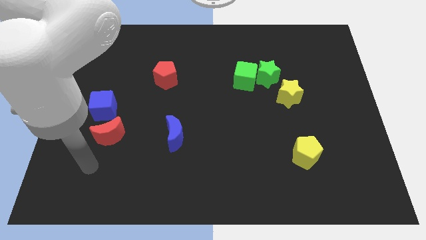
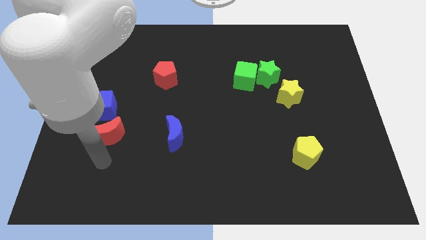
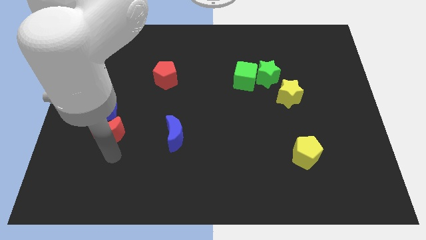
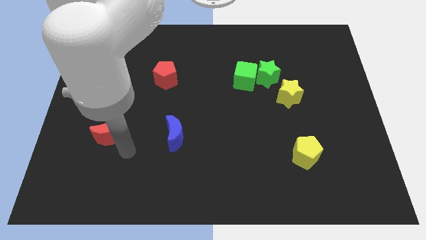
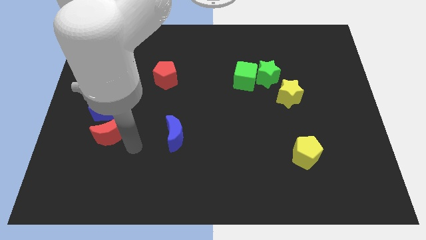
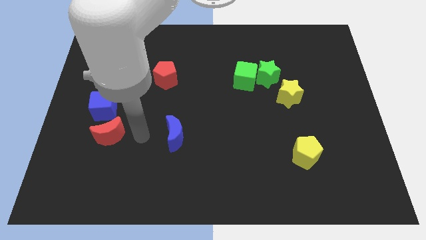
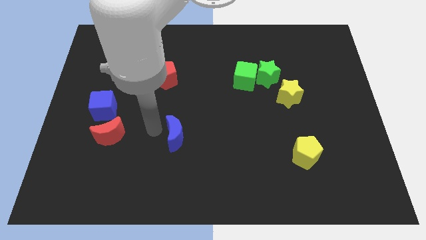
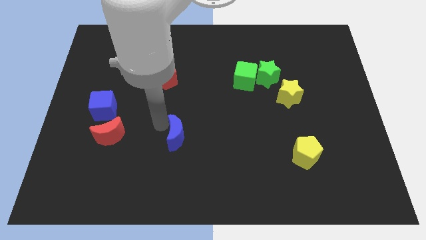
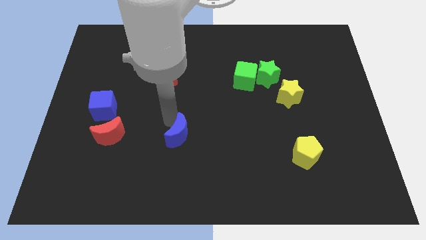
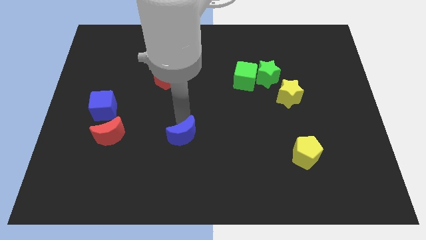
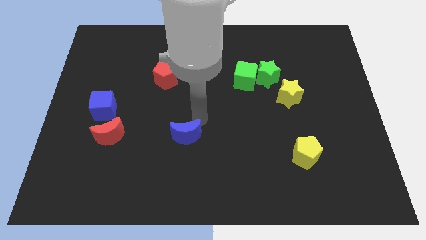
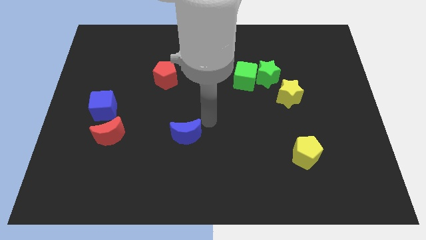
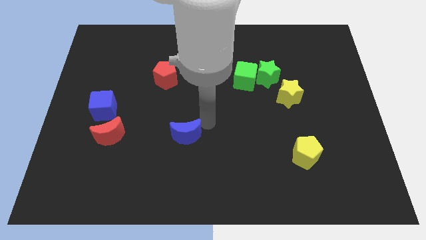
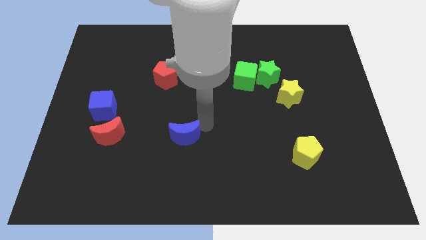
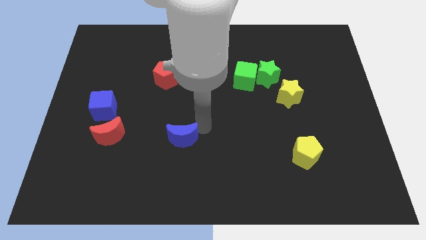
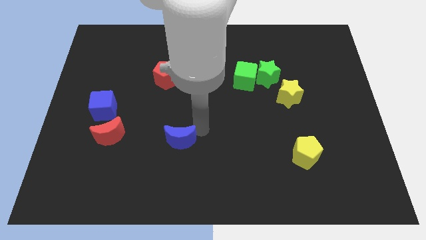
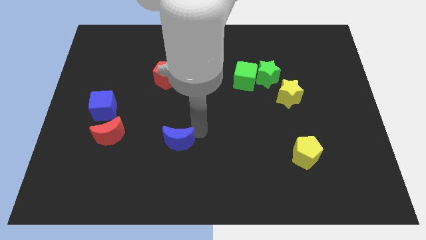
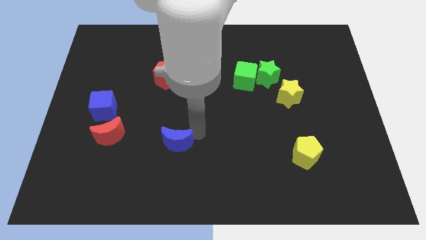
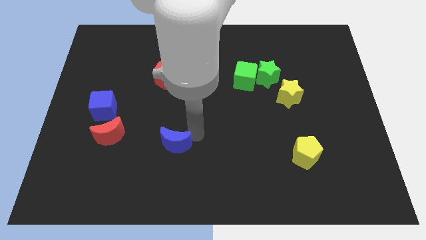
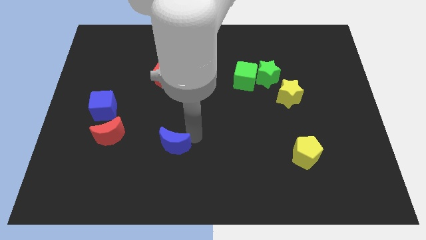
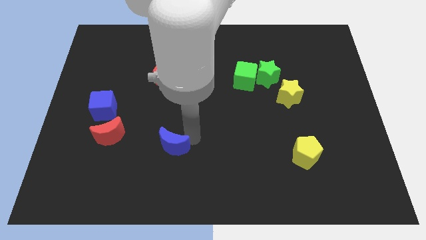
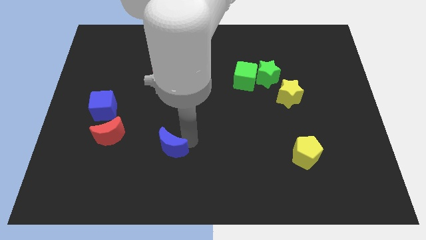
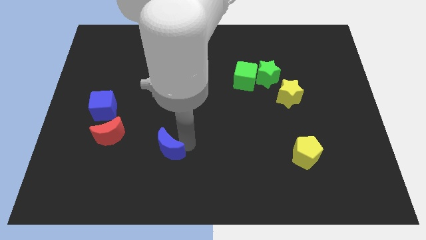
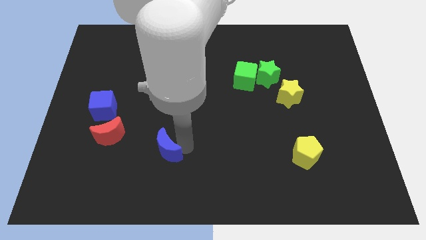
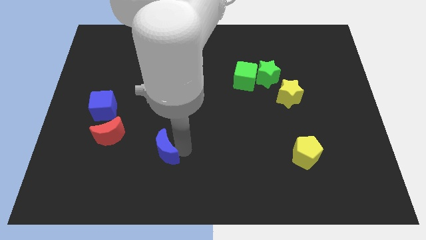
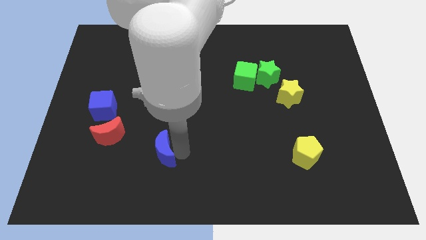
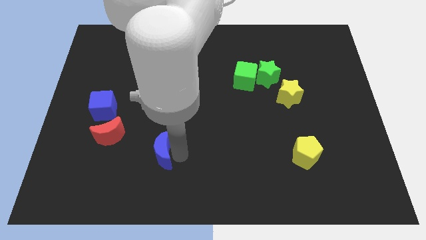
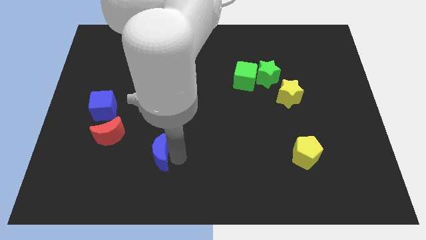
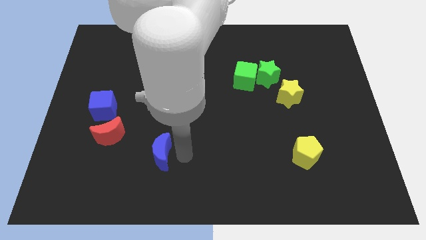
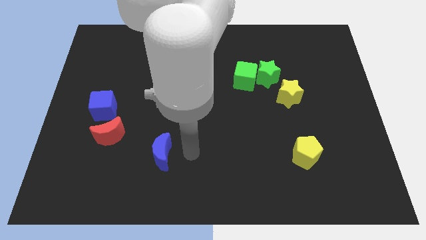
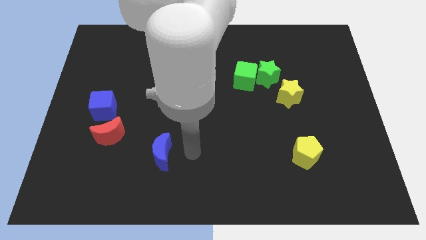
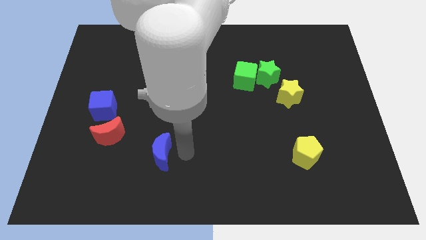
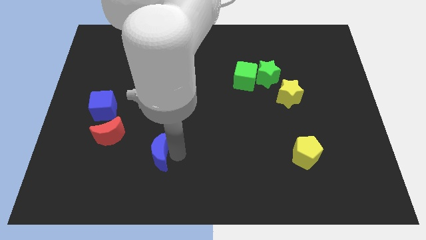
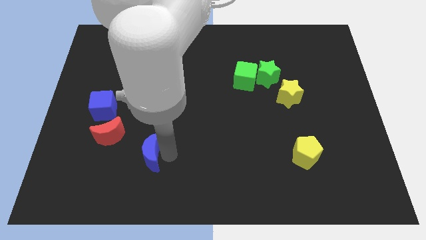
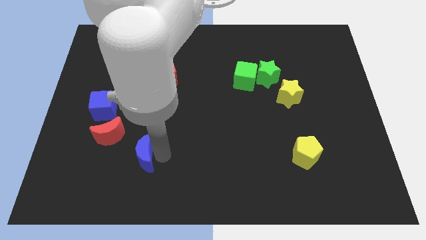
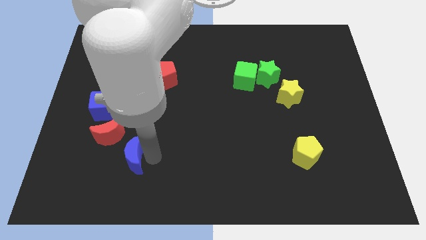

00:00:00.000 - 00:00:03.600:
slide the blue moon to the left a bit

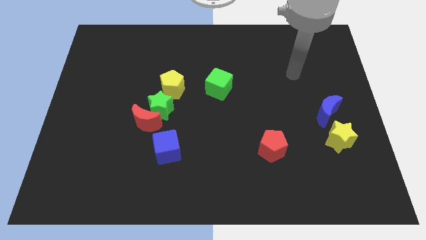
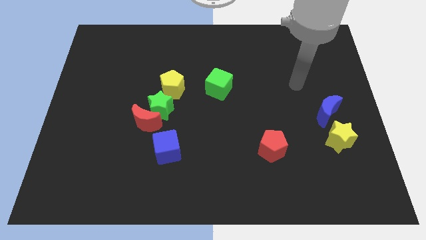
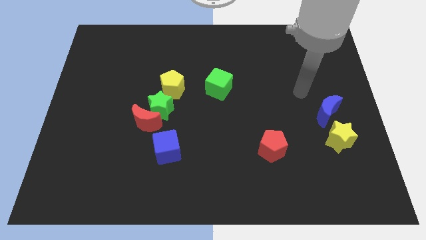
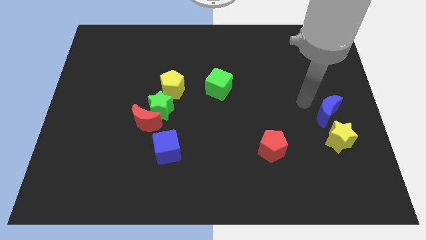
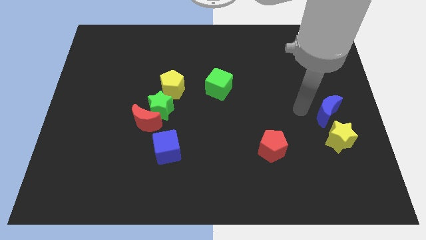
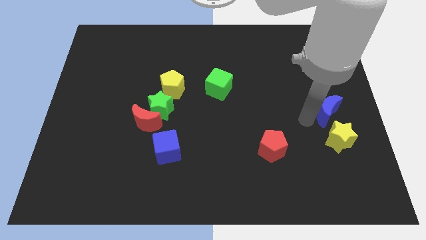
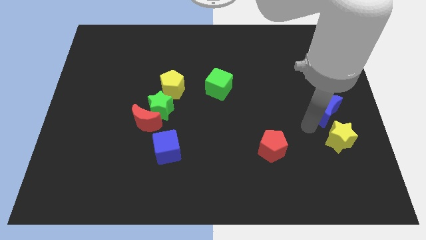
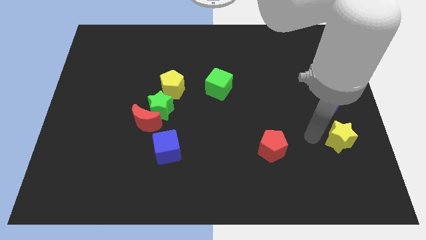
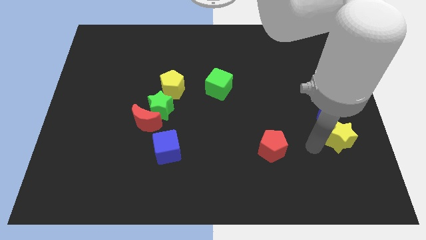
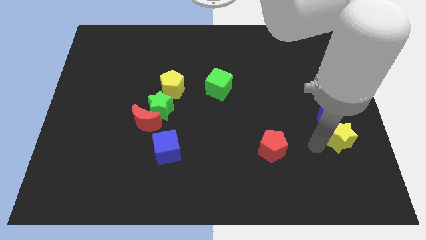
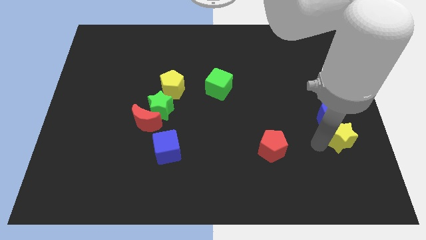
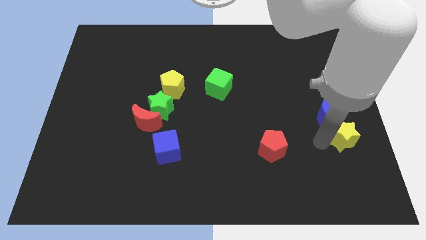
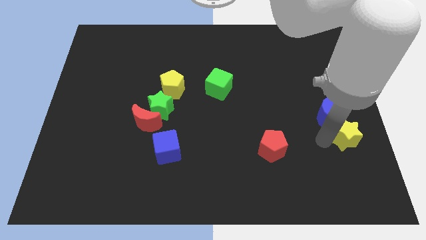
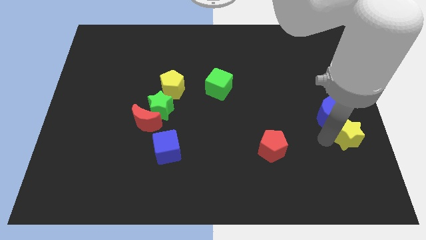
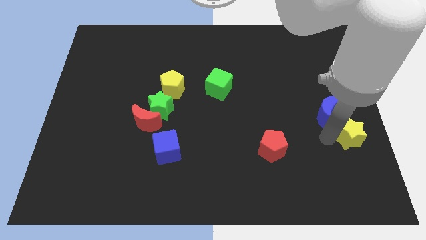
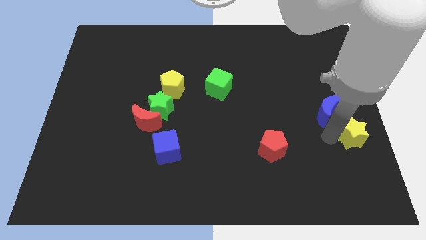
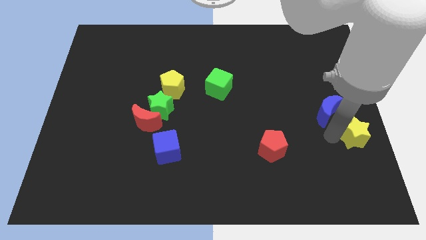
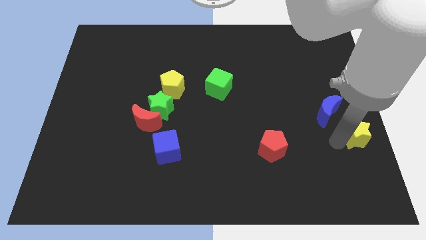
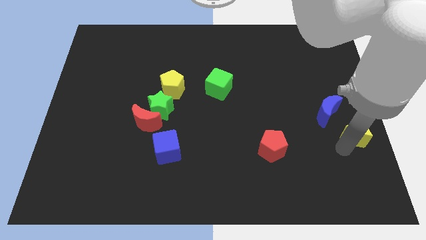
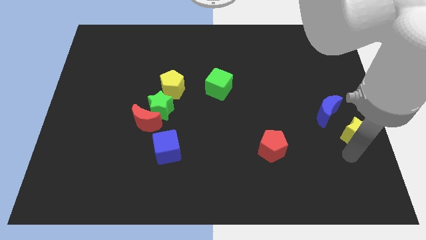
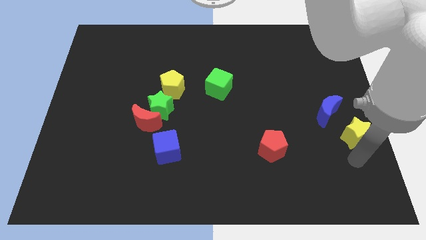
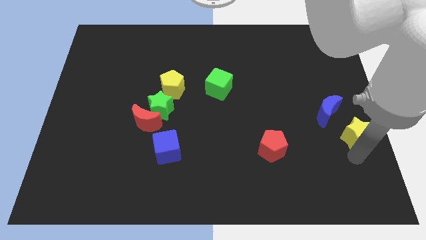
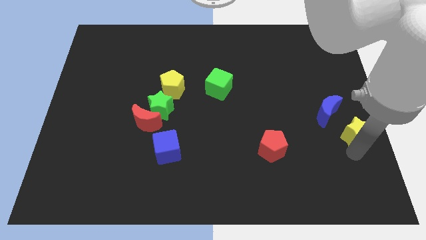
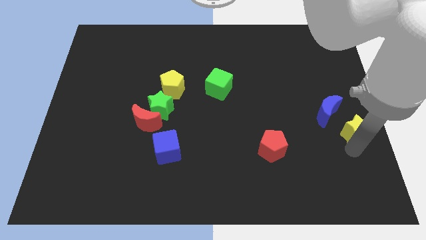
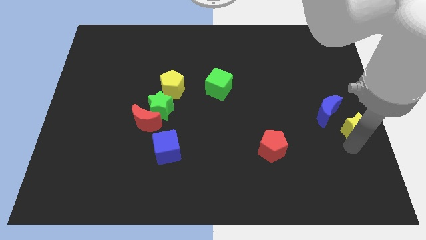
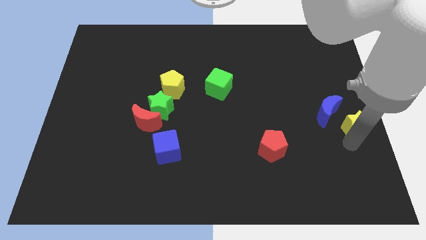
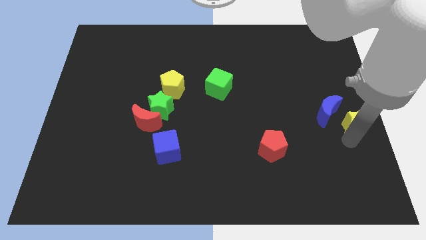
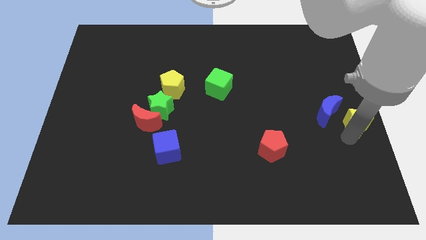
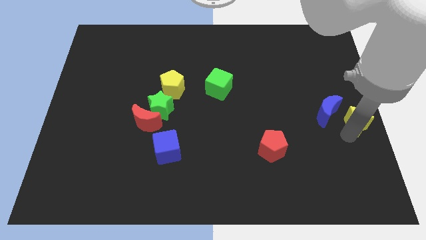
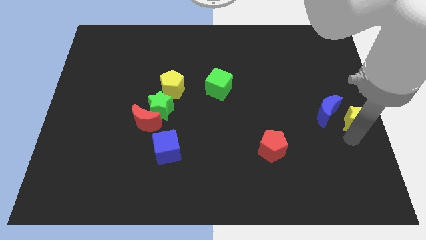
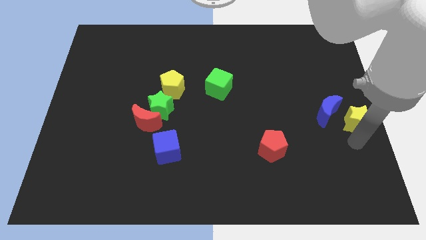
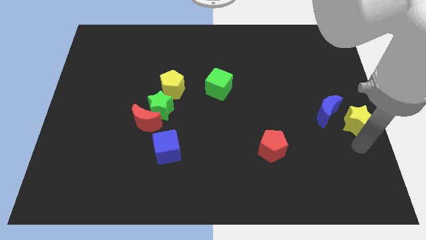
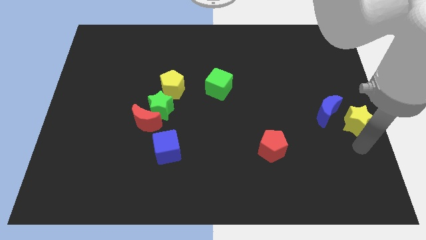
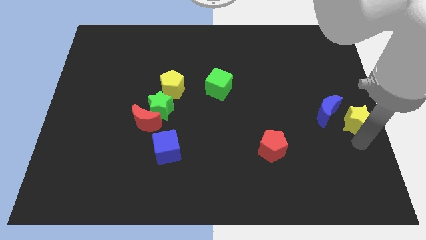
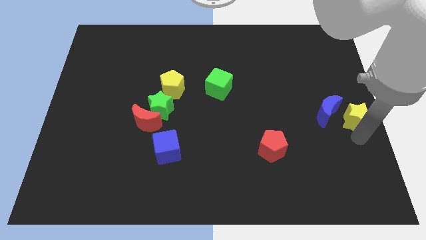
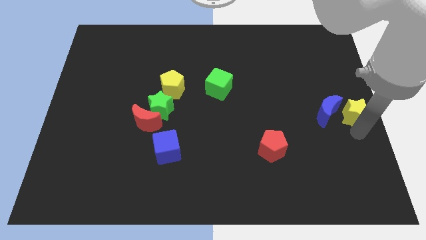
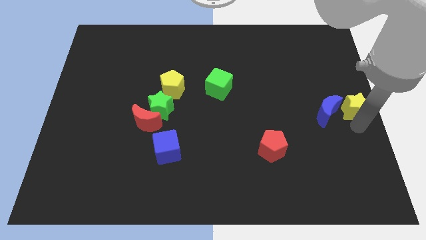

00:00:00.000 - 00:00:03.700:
slightly slide the yellow star up

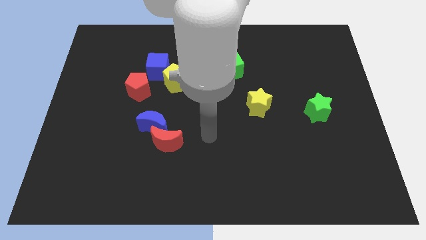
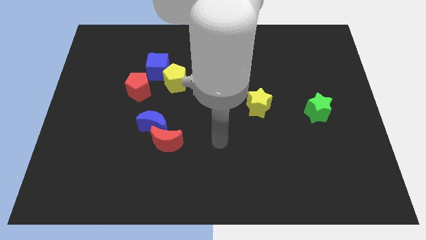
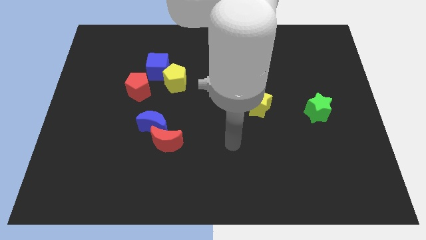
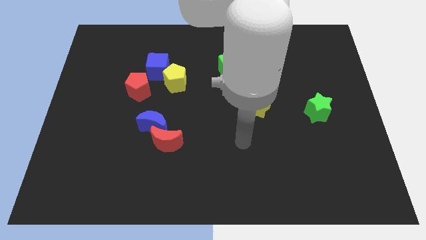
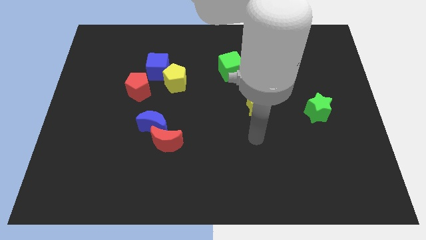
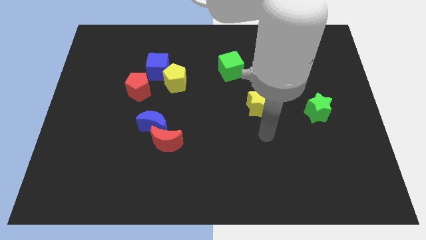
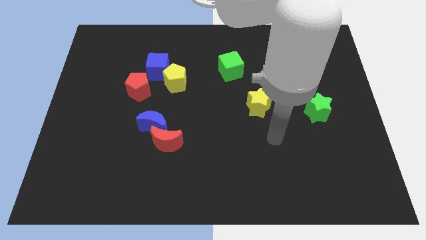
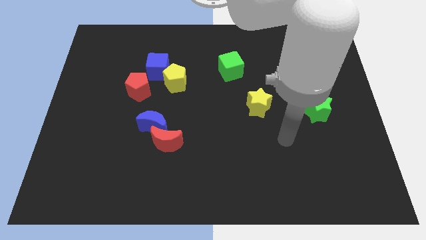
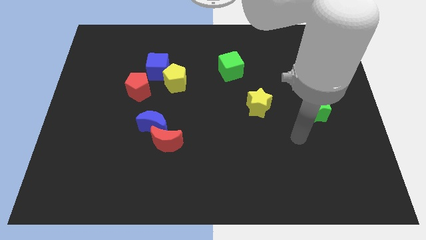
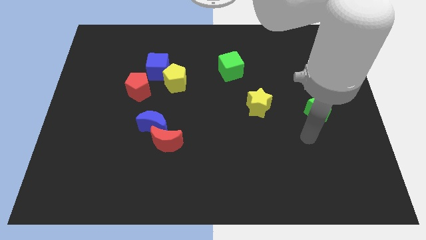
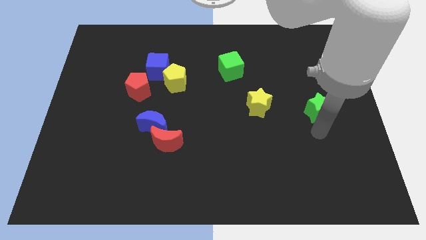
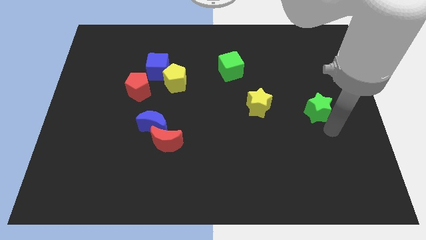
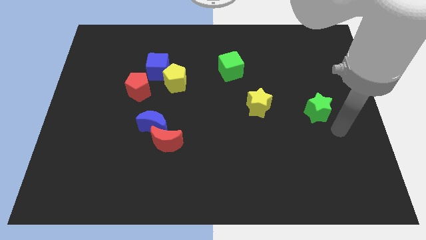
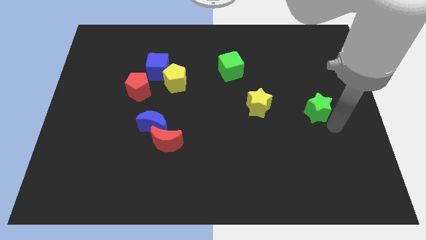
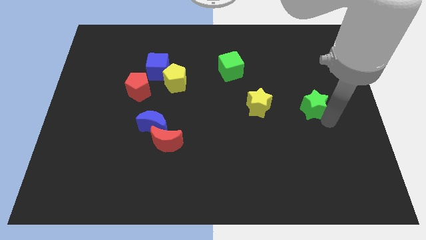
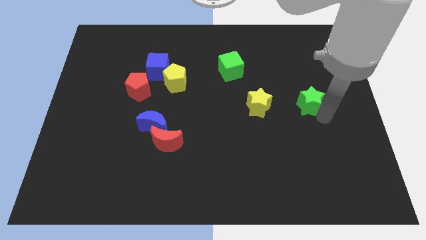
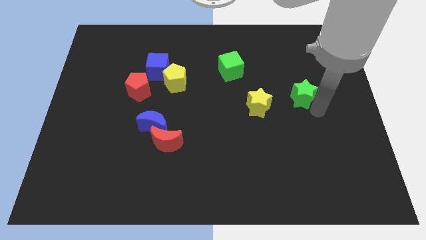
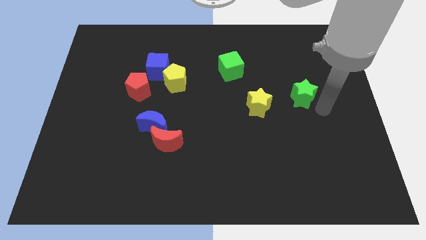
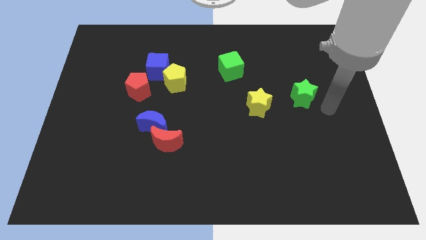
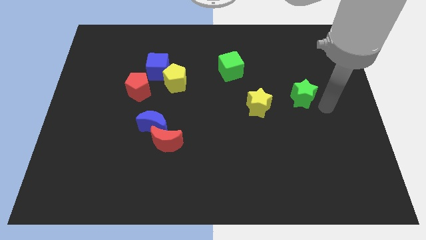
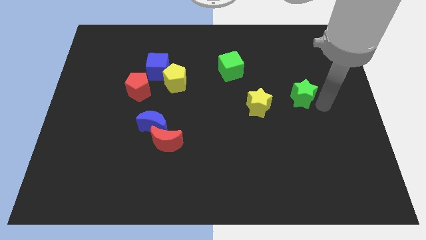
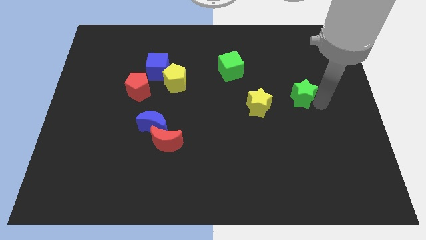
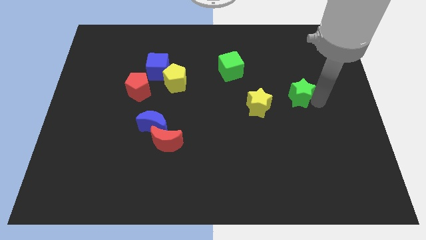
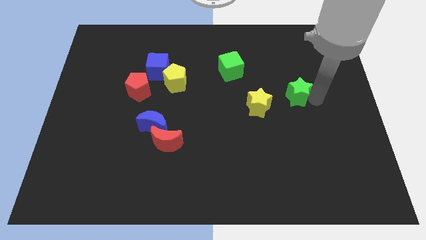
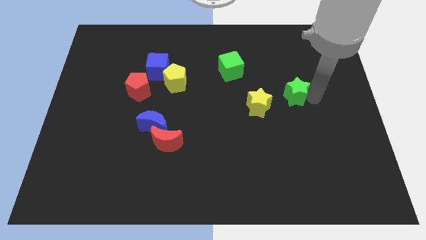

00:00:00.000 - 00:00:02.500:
slide the green star a little bit upwards and then left
